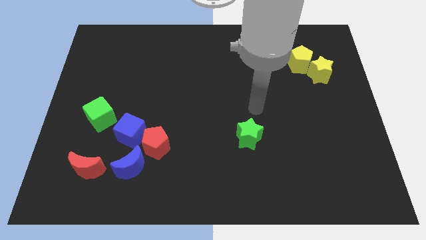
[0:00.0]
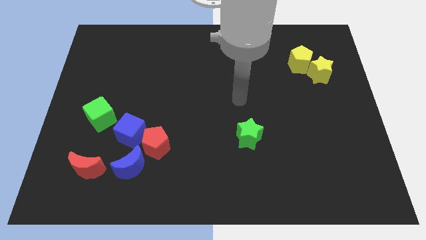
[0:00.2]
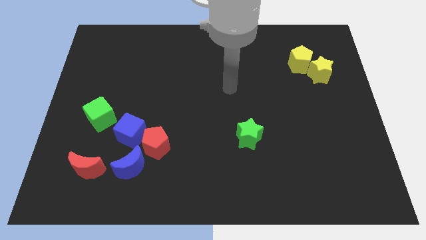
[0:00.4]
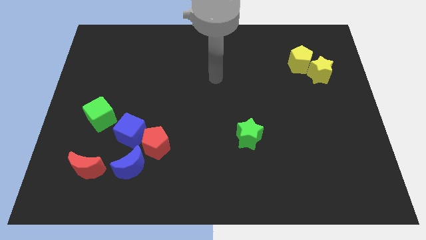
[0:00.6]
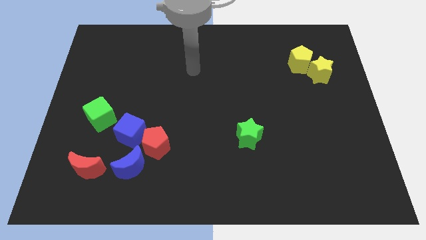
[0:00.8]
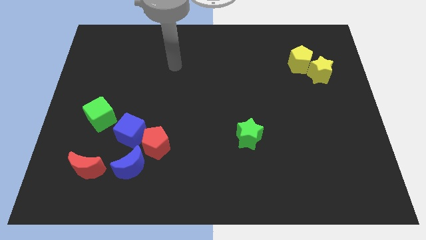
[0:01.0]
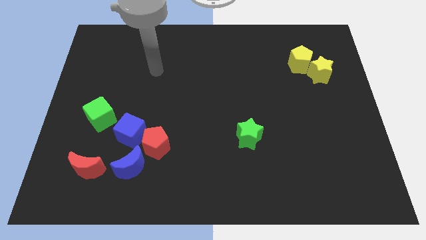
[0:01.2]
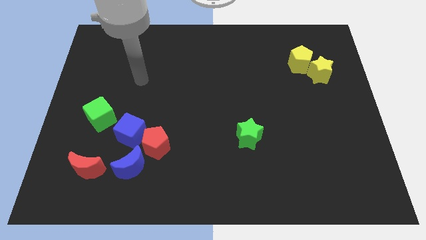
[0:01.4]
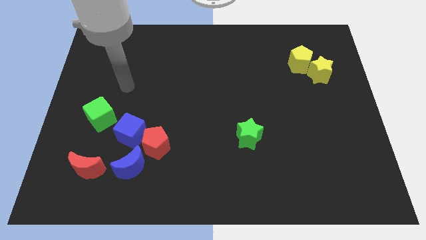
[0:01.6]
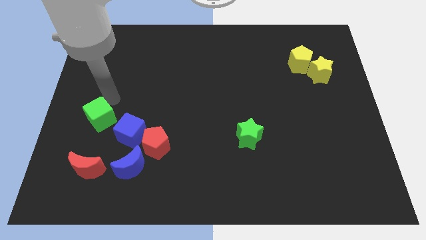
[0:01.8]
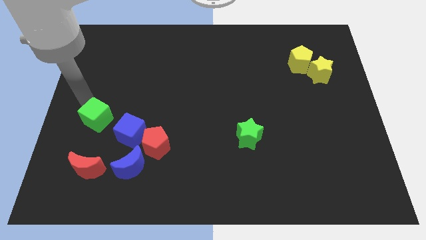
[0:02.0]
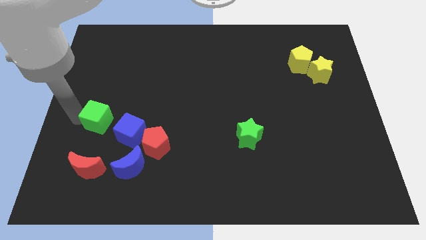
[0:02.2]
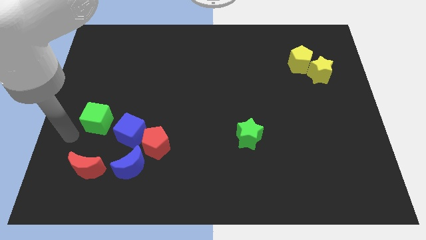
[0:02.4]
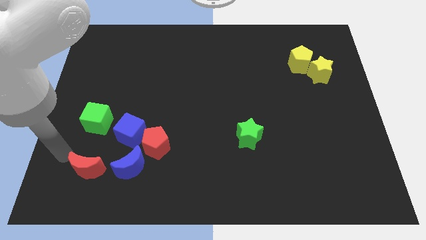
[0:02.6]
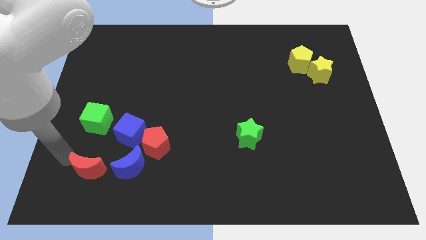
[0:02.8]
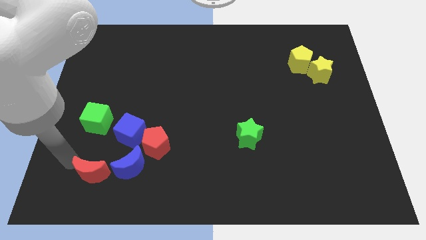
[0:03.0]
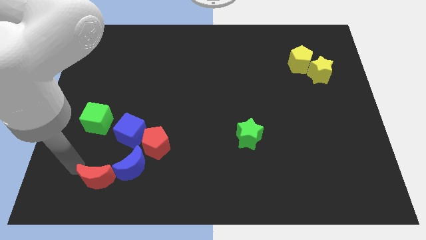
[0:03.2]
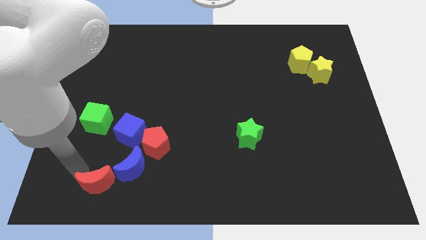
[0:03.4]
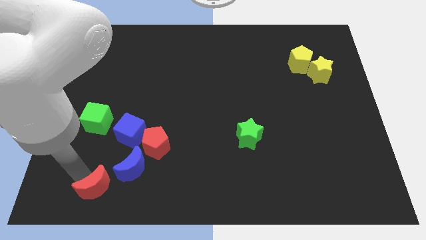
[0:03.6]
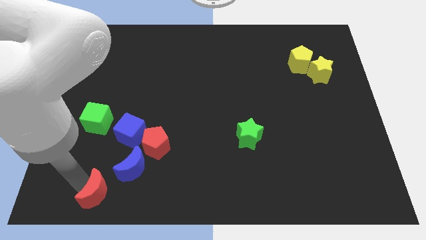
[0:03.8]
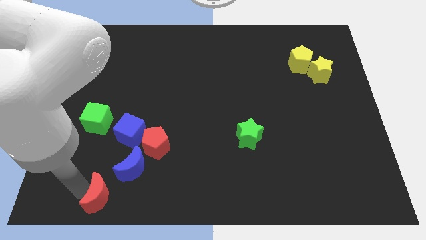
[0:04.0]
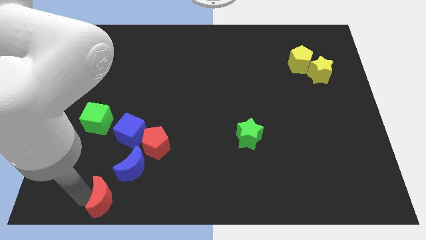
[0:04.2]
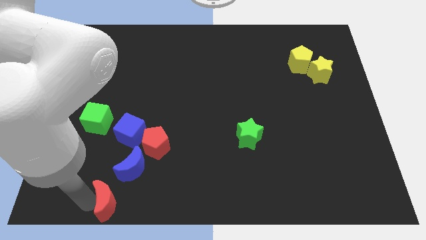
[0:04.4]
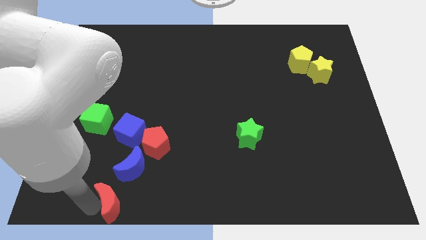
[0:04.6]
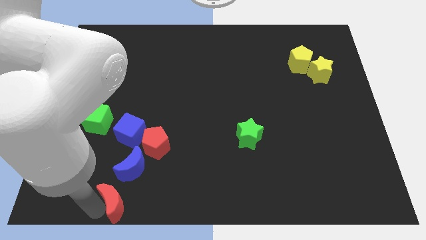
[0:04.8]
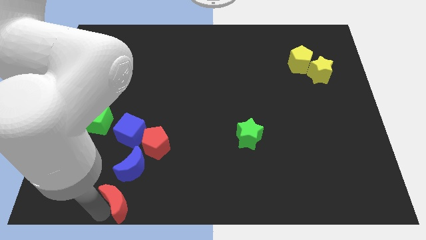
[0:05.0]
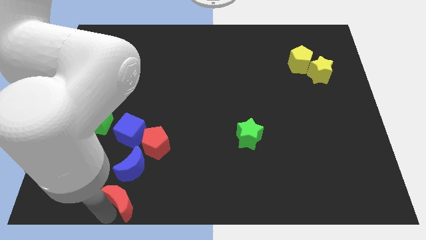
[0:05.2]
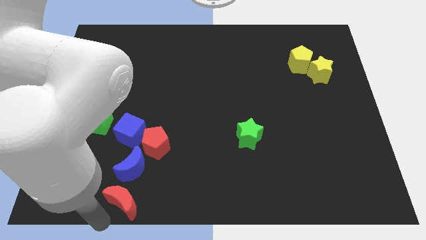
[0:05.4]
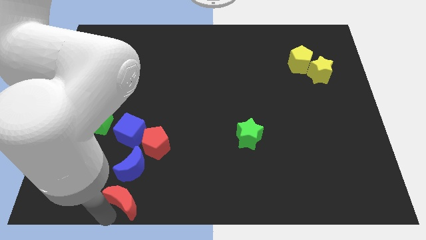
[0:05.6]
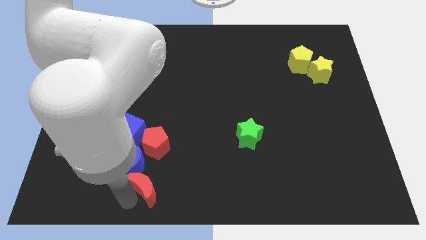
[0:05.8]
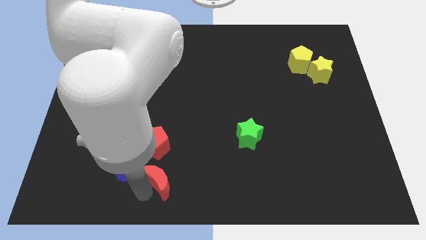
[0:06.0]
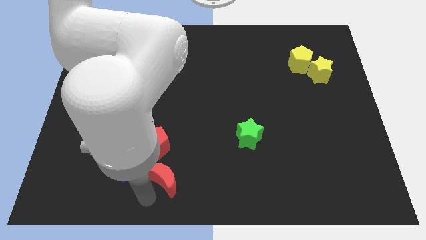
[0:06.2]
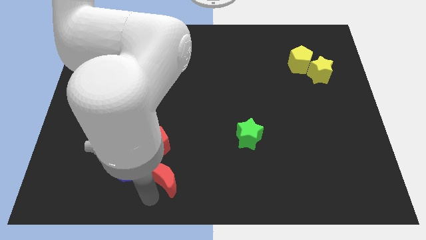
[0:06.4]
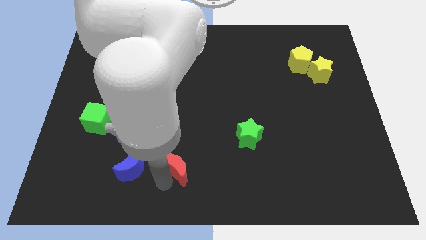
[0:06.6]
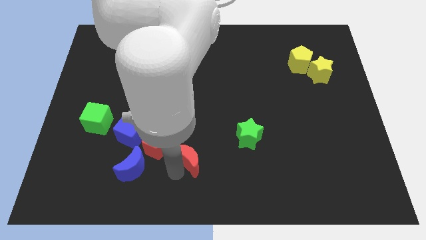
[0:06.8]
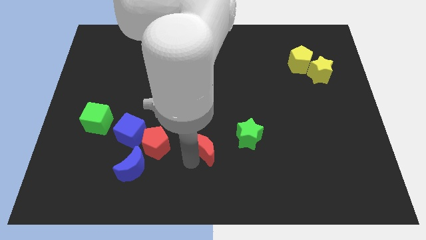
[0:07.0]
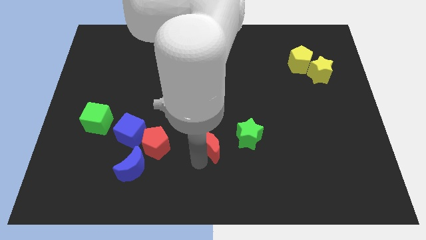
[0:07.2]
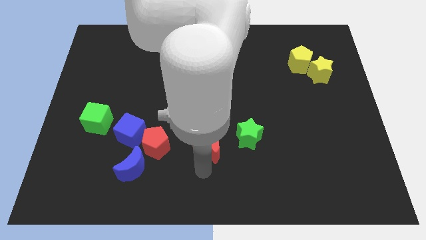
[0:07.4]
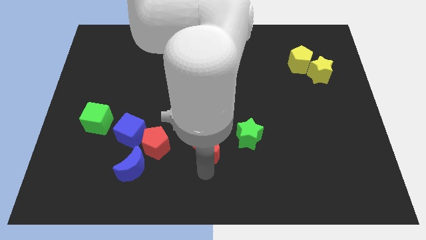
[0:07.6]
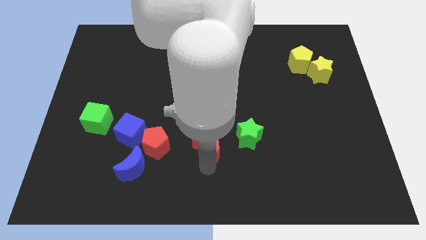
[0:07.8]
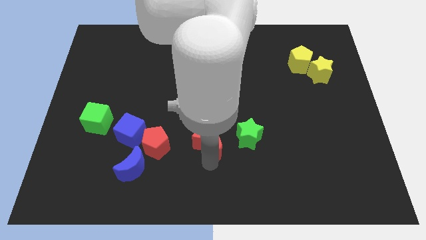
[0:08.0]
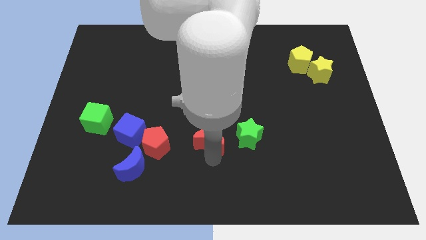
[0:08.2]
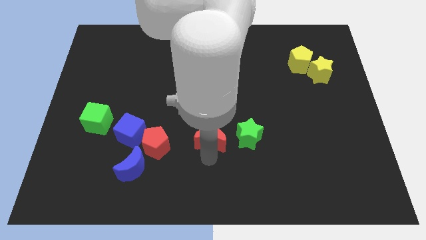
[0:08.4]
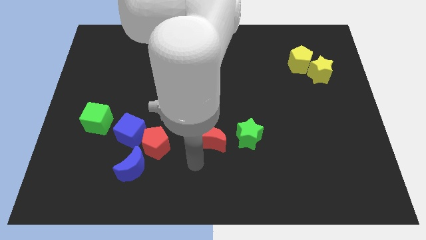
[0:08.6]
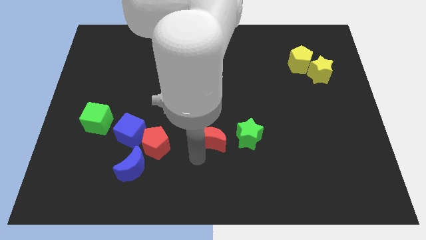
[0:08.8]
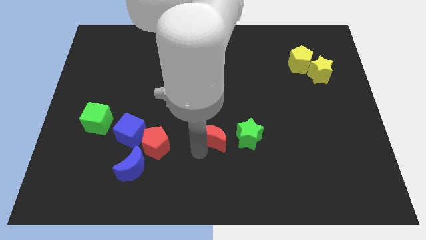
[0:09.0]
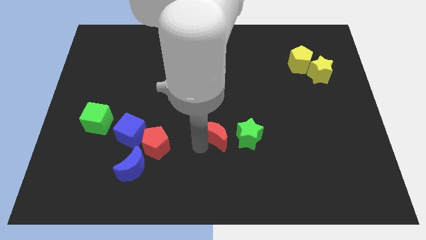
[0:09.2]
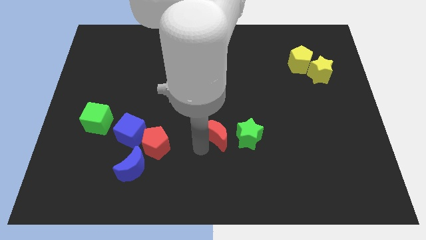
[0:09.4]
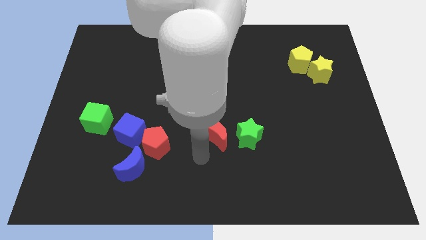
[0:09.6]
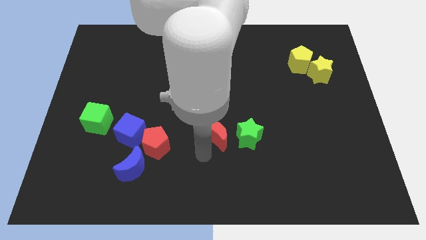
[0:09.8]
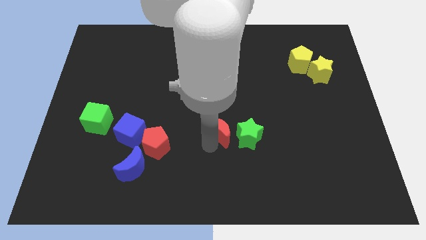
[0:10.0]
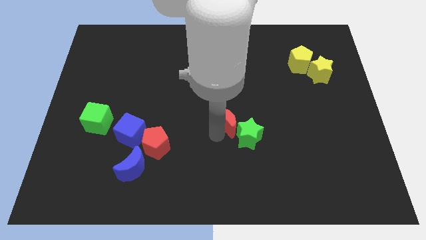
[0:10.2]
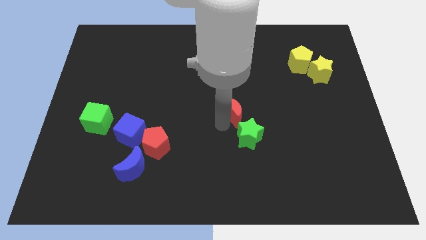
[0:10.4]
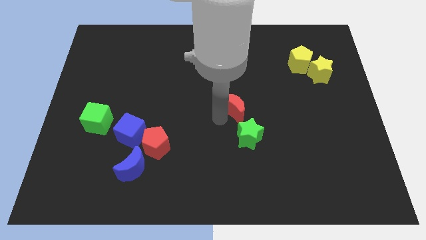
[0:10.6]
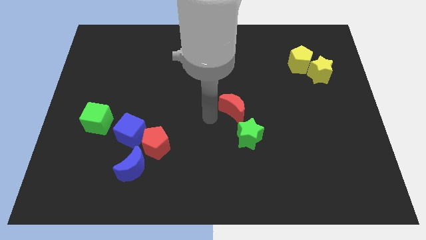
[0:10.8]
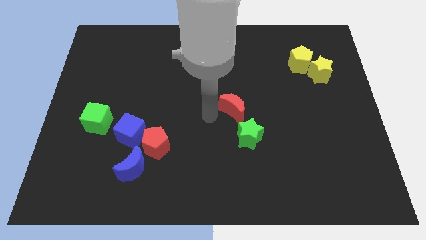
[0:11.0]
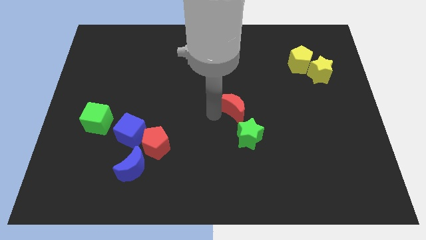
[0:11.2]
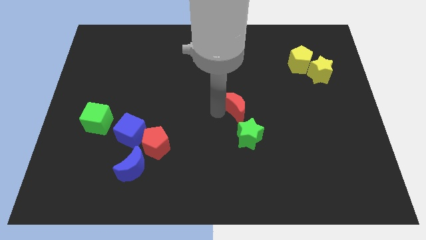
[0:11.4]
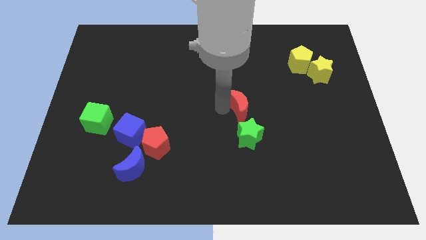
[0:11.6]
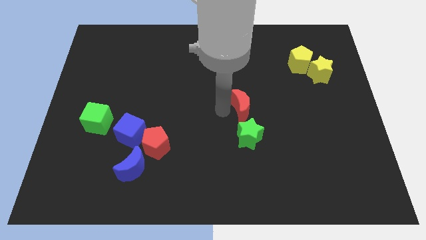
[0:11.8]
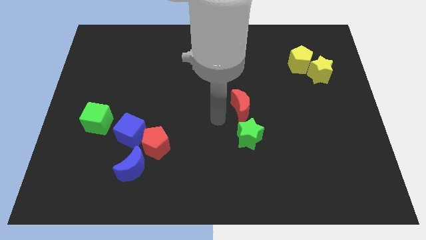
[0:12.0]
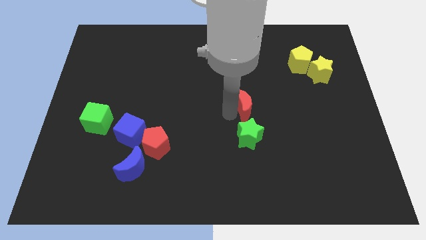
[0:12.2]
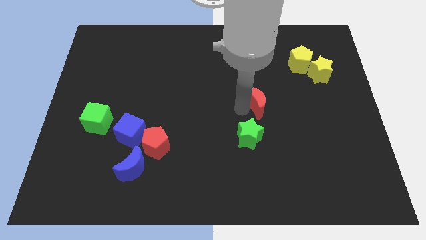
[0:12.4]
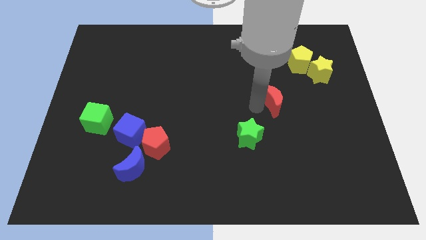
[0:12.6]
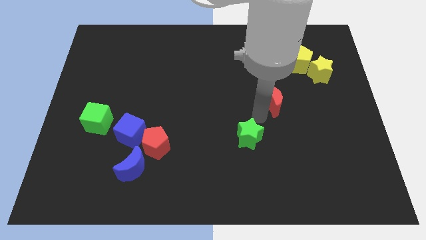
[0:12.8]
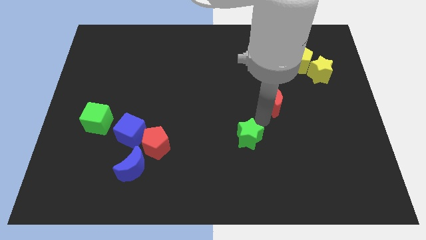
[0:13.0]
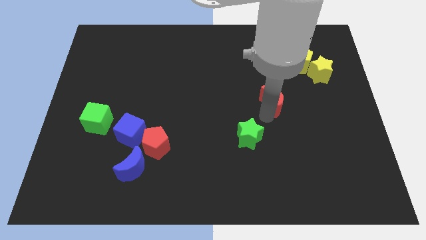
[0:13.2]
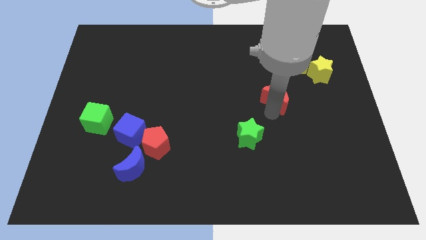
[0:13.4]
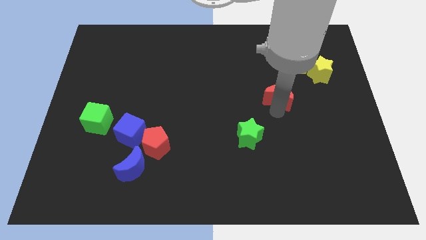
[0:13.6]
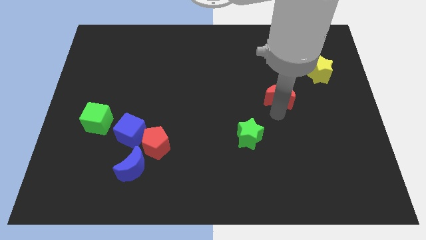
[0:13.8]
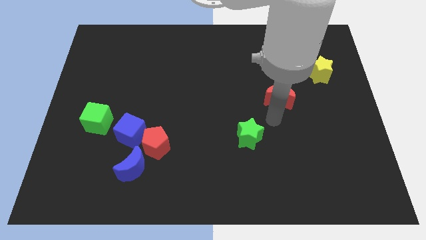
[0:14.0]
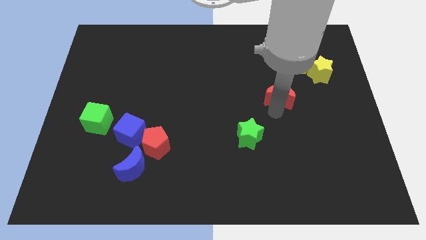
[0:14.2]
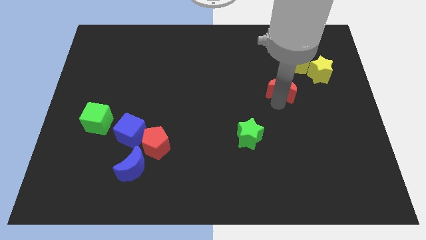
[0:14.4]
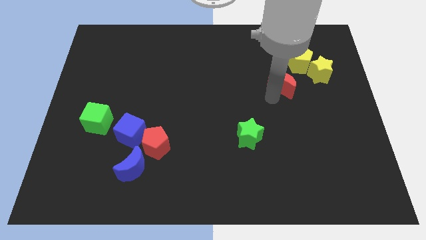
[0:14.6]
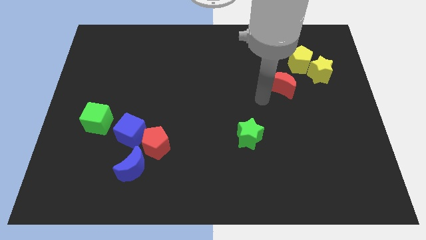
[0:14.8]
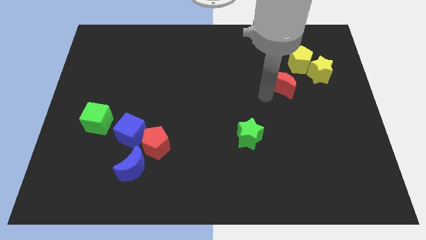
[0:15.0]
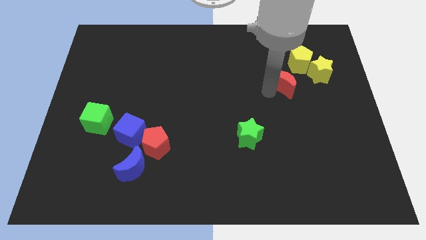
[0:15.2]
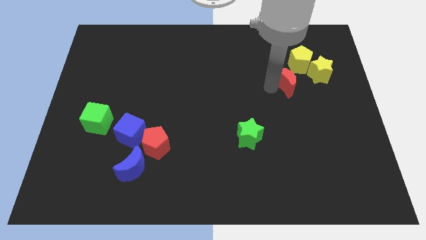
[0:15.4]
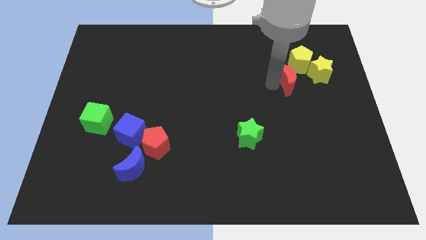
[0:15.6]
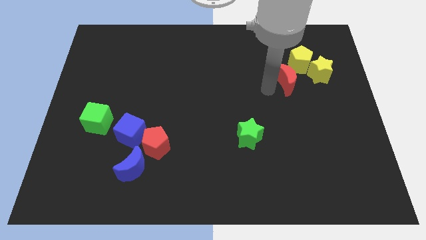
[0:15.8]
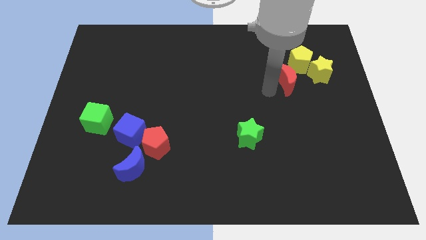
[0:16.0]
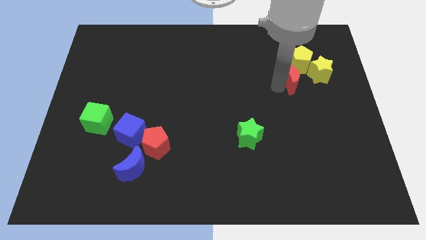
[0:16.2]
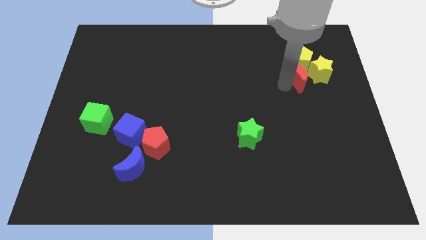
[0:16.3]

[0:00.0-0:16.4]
slide the red moon to the yellow pentagon
